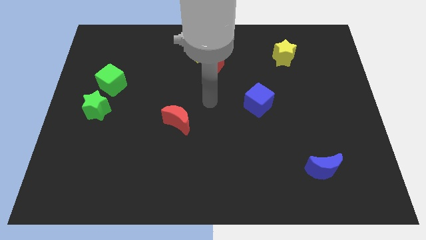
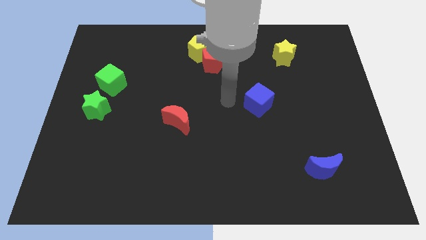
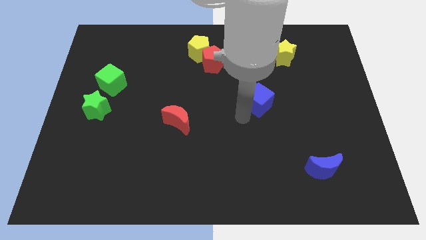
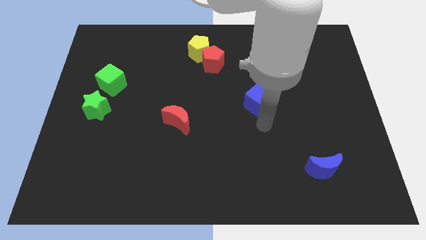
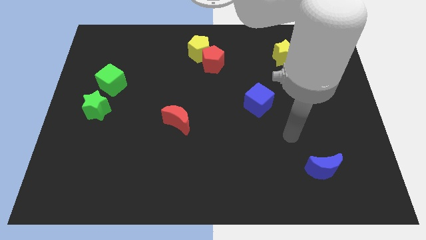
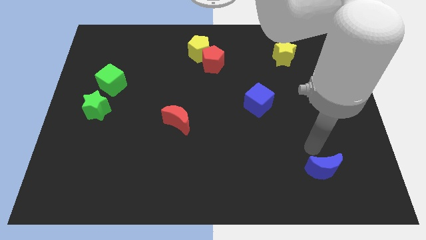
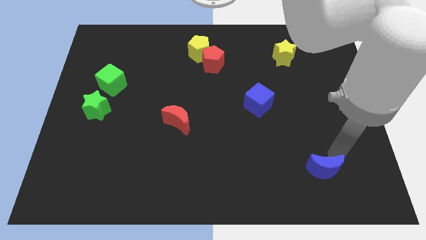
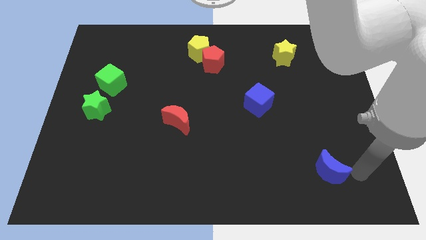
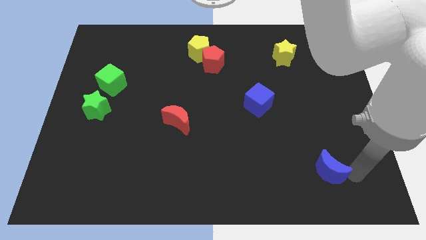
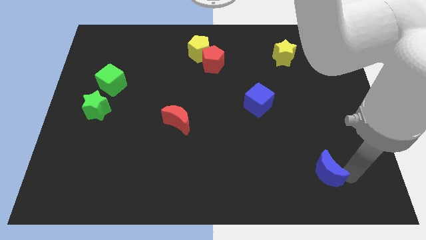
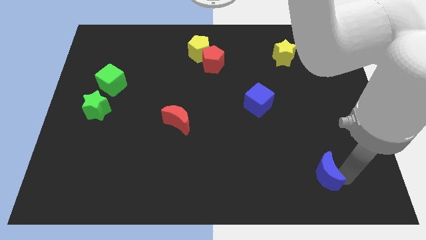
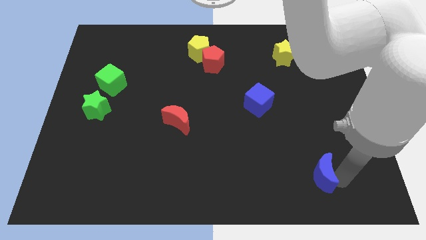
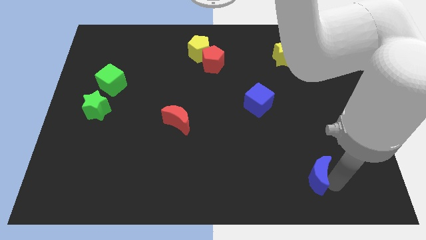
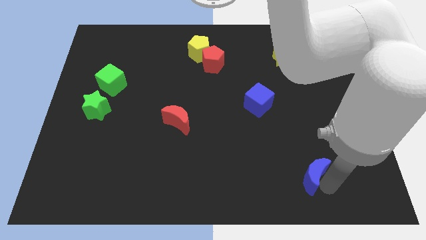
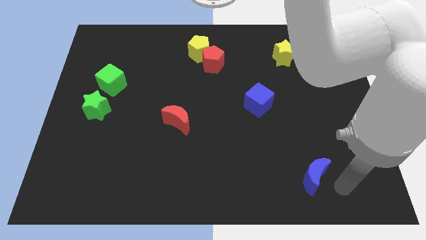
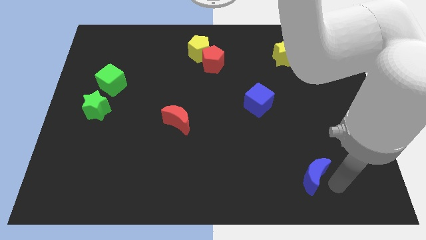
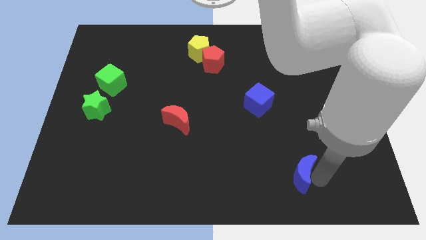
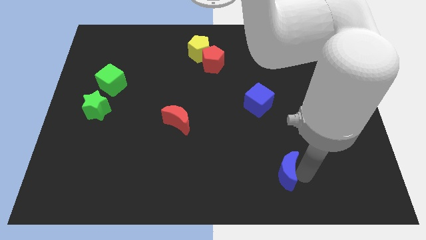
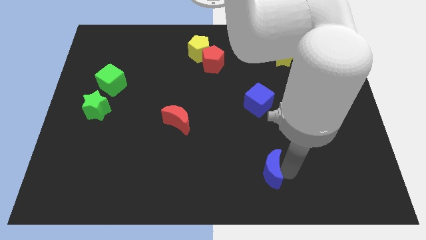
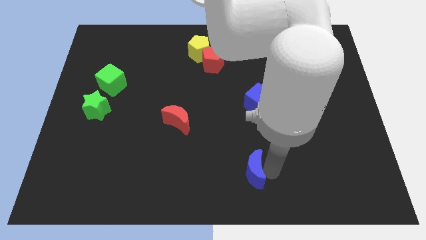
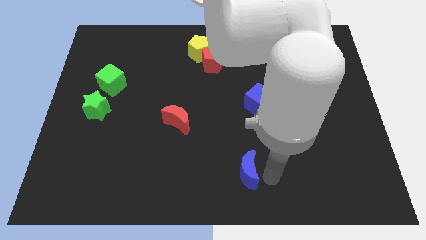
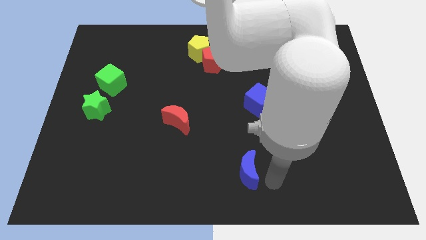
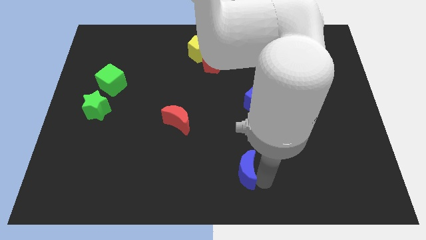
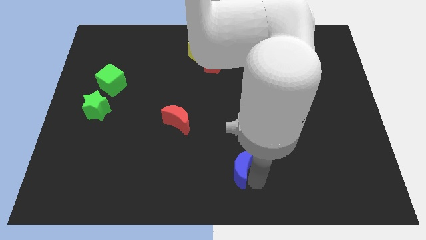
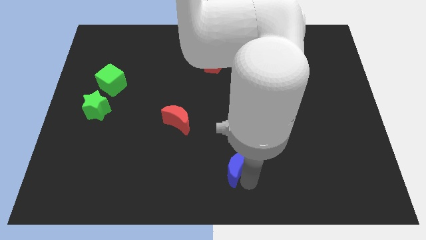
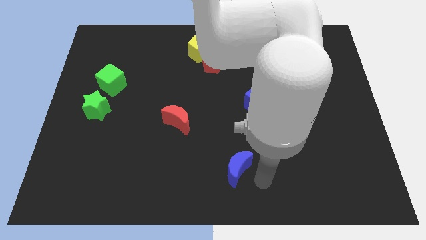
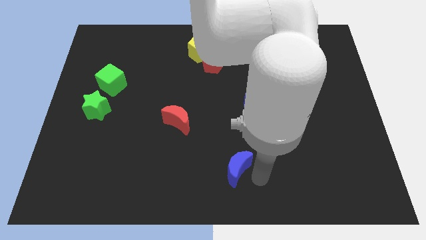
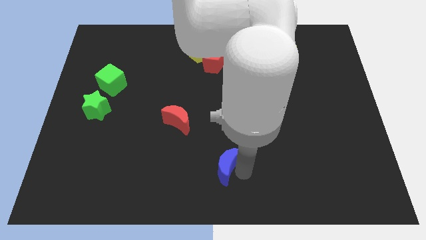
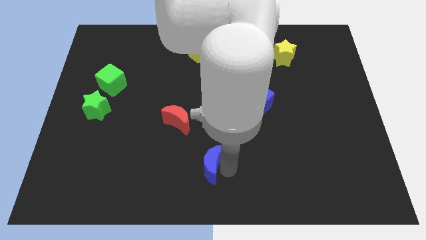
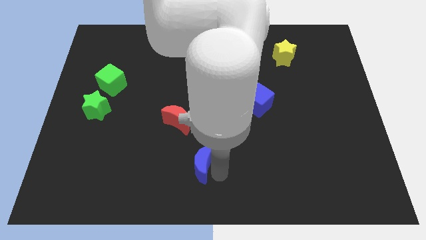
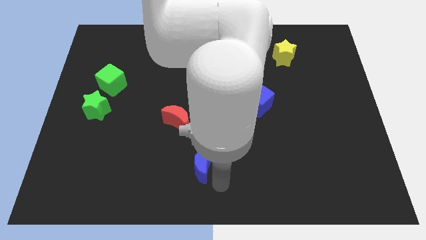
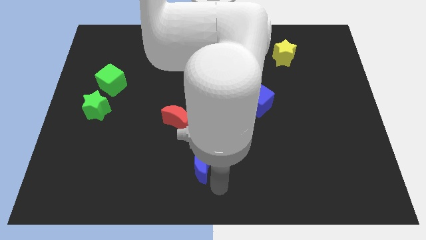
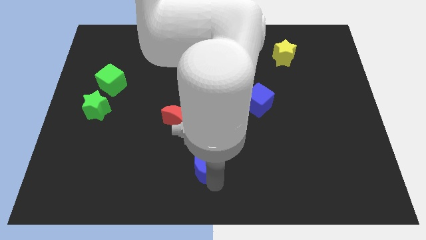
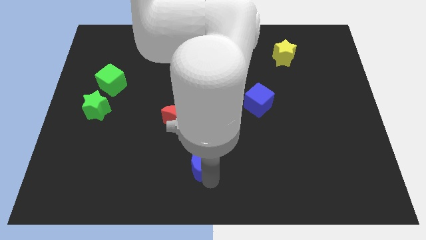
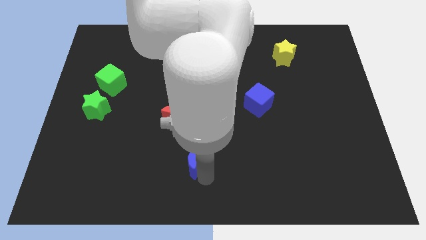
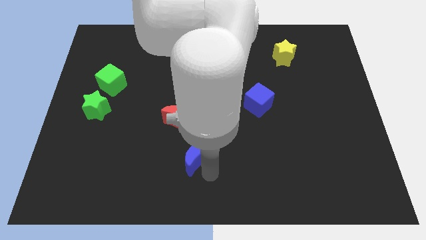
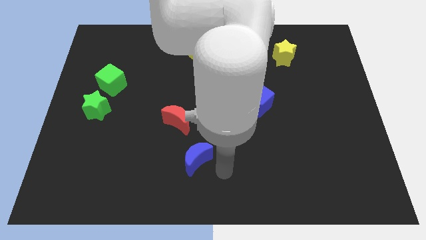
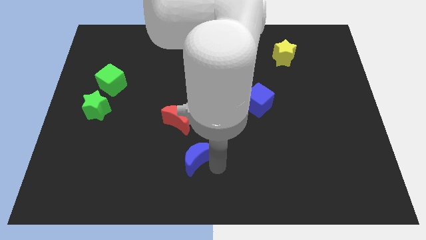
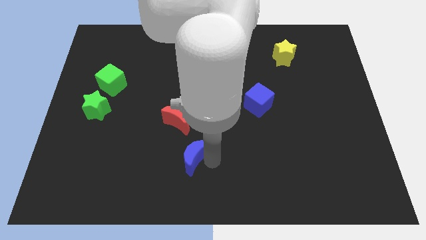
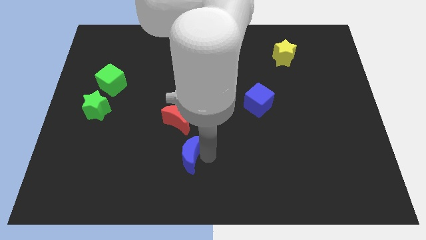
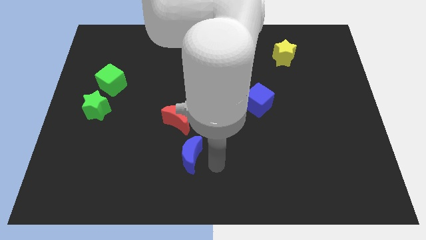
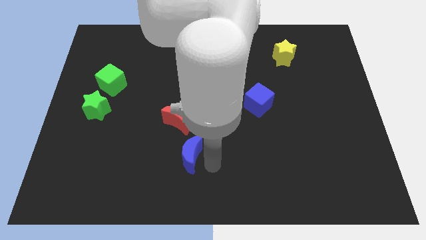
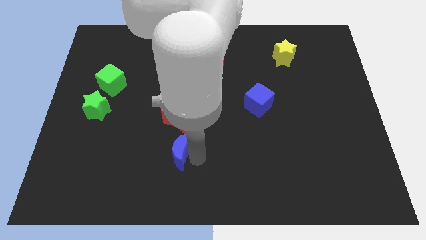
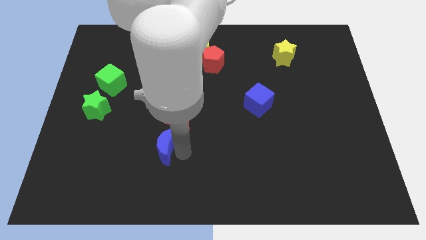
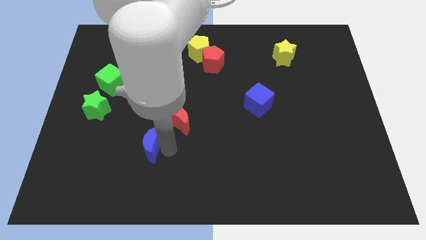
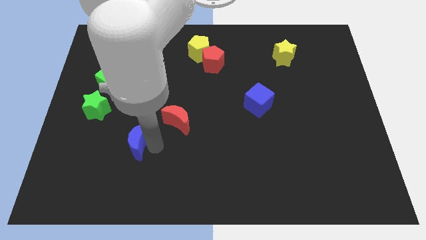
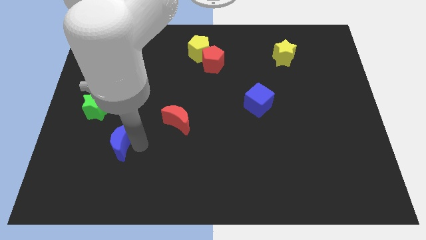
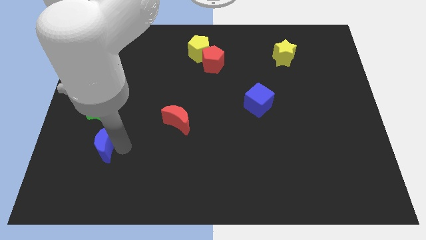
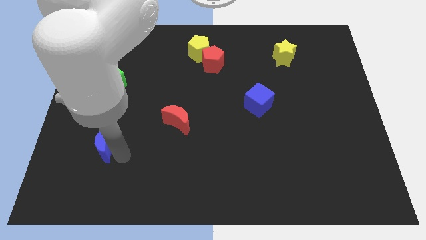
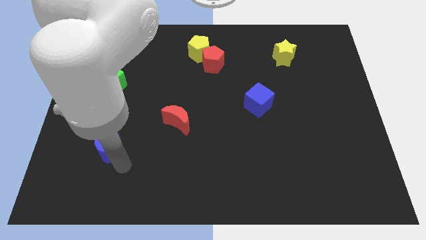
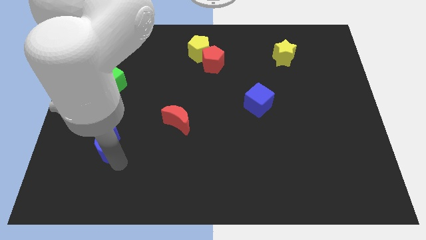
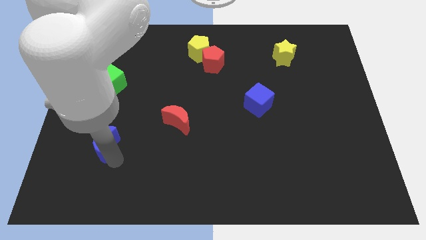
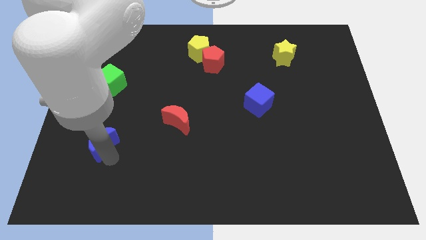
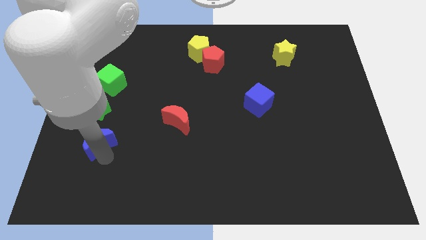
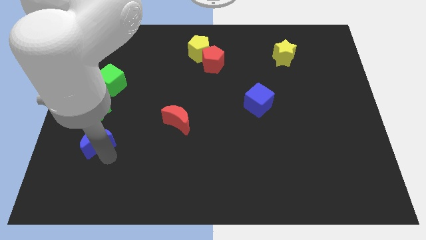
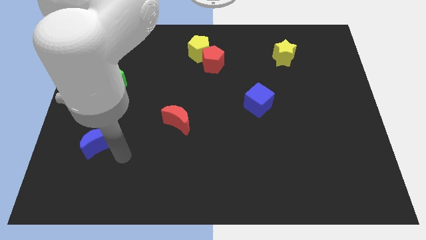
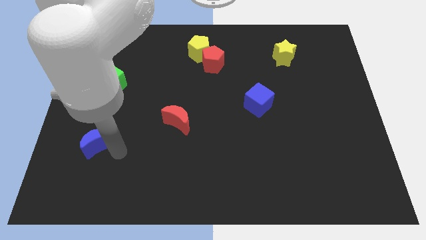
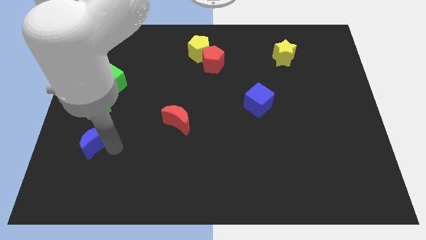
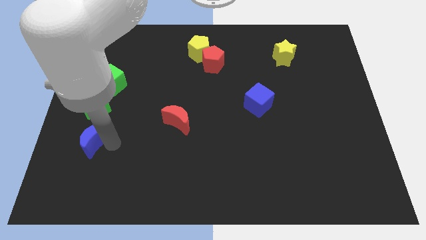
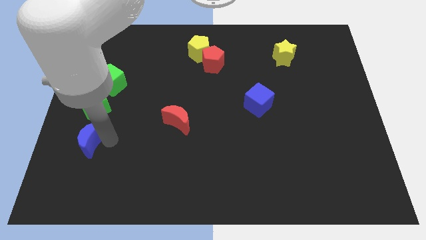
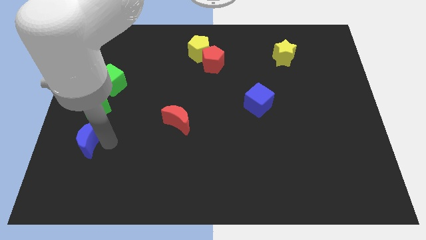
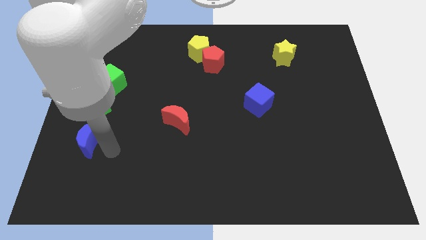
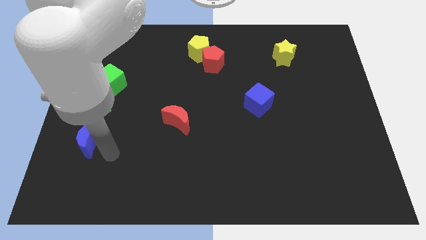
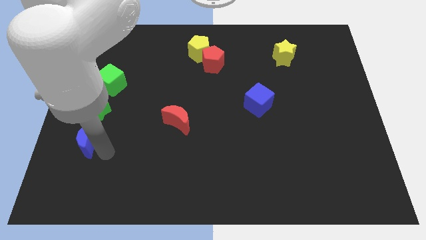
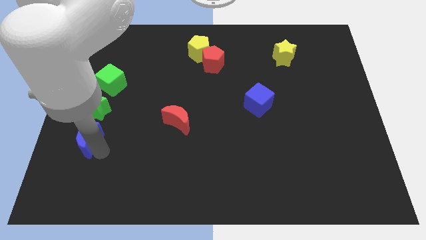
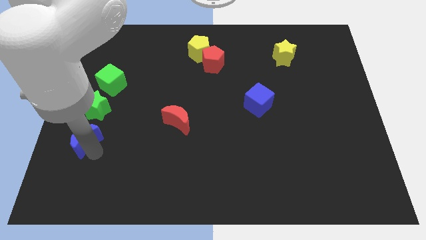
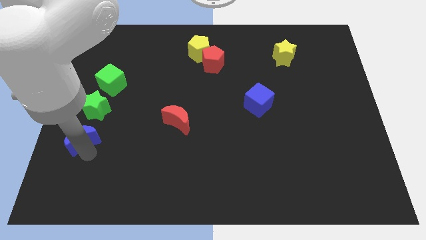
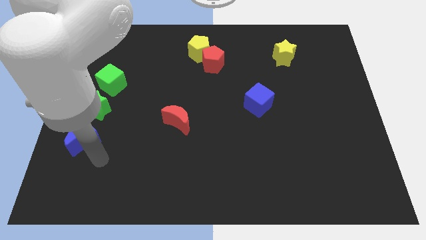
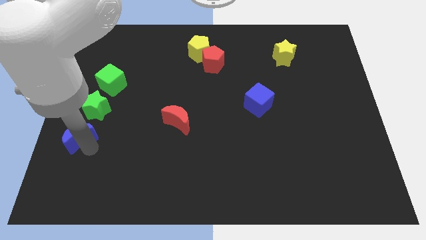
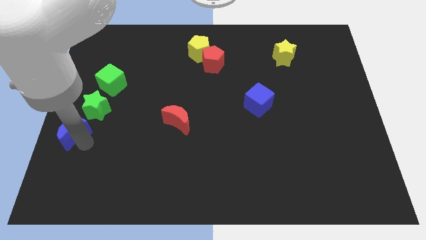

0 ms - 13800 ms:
slide the blue moon to the left side of the board
